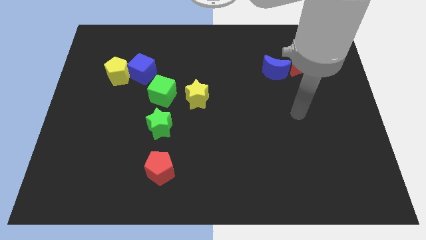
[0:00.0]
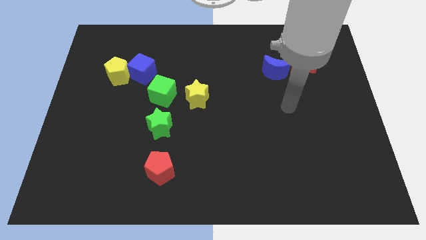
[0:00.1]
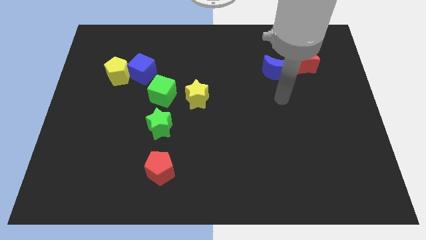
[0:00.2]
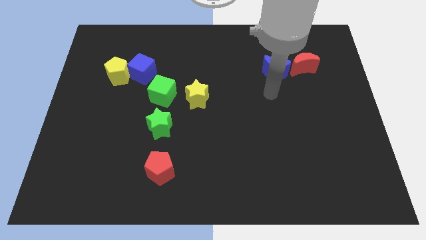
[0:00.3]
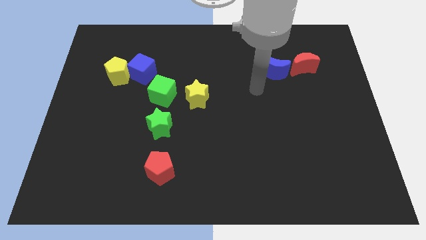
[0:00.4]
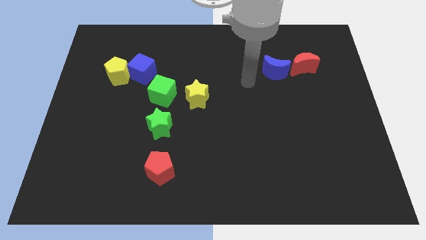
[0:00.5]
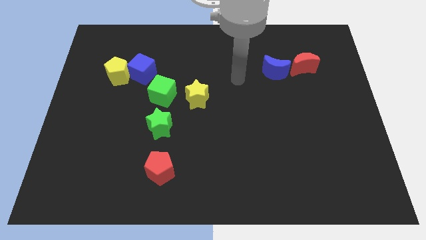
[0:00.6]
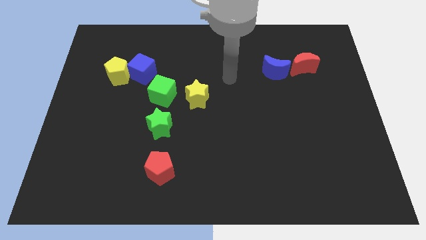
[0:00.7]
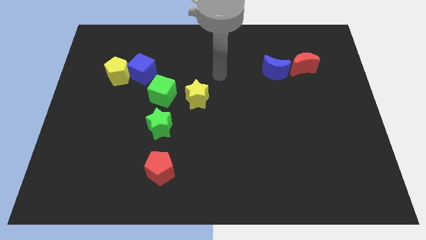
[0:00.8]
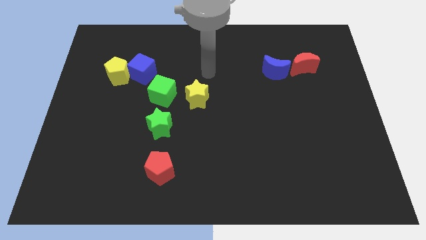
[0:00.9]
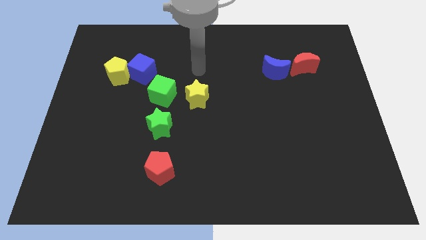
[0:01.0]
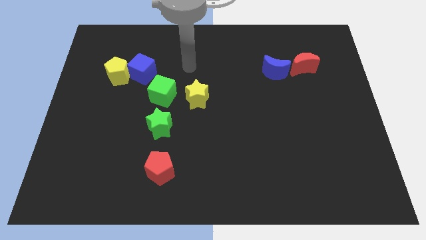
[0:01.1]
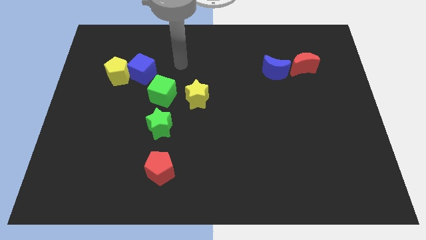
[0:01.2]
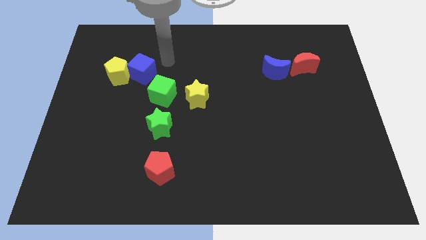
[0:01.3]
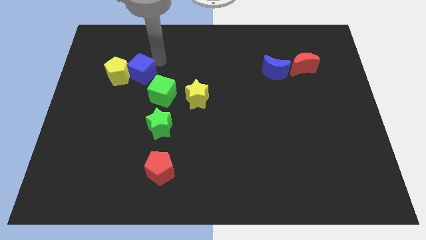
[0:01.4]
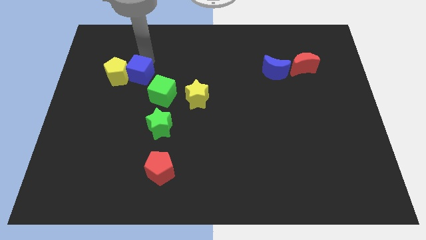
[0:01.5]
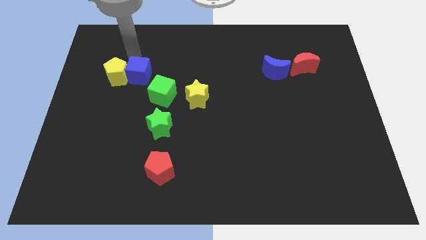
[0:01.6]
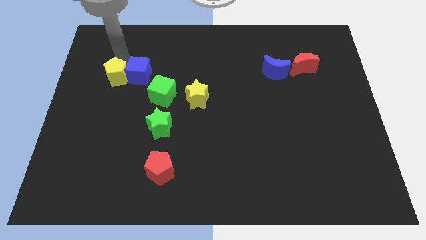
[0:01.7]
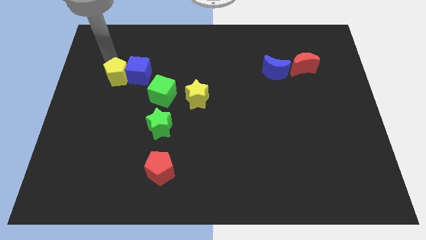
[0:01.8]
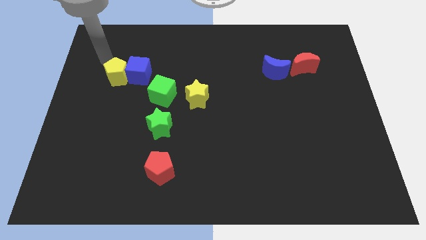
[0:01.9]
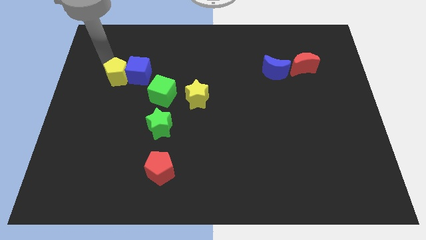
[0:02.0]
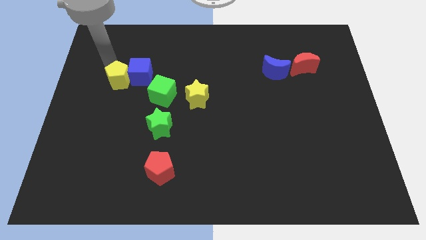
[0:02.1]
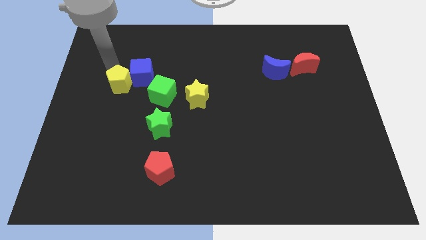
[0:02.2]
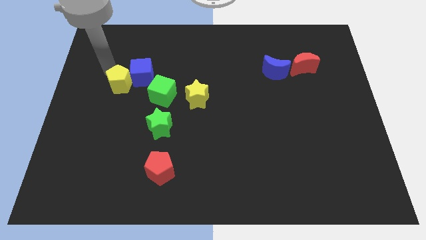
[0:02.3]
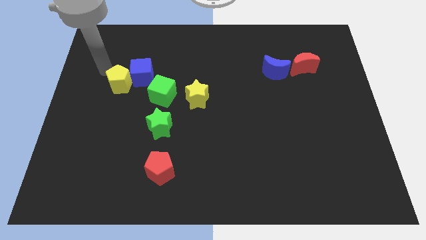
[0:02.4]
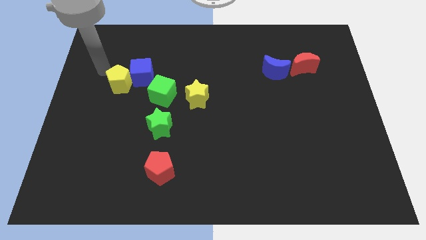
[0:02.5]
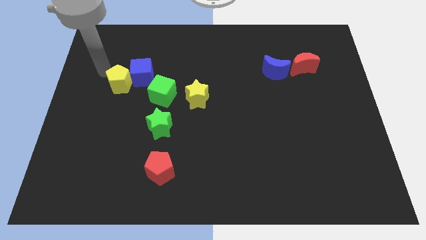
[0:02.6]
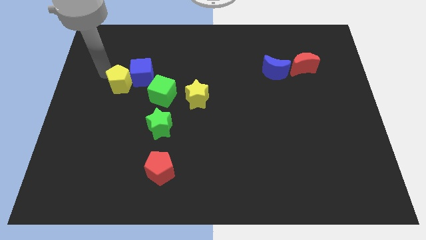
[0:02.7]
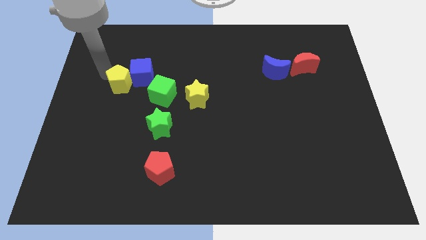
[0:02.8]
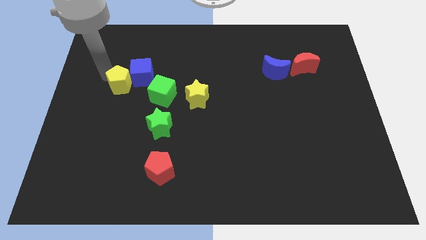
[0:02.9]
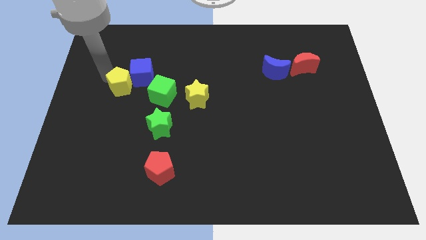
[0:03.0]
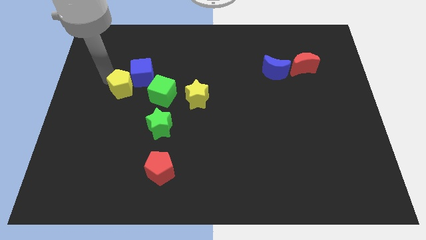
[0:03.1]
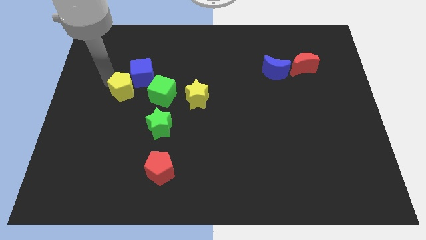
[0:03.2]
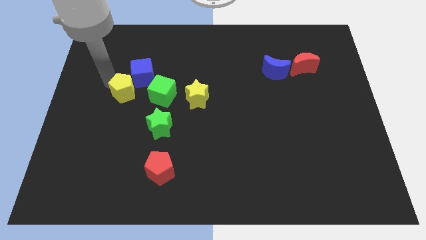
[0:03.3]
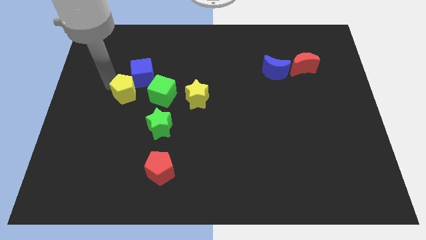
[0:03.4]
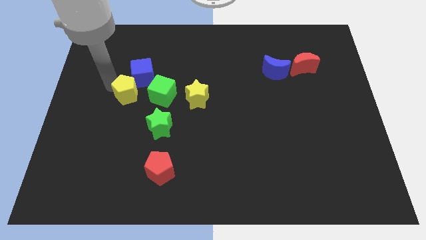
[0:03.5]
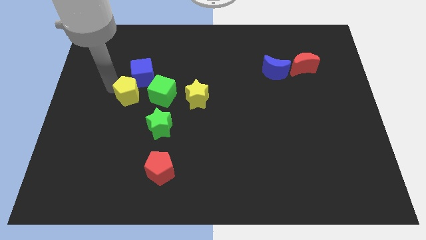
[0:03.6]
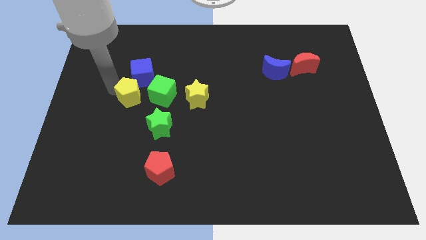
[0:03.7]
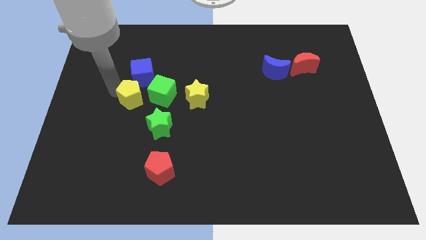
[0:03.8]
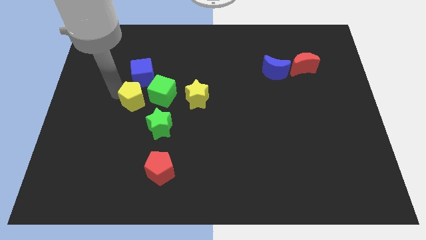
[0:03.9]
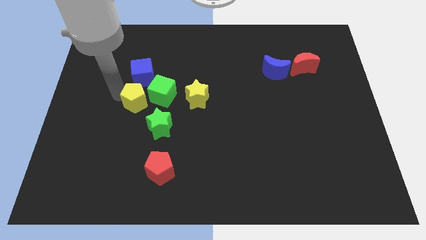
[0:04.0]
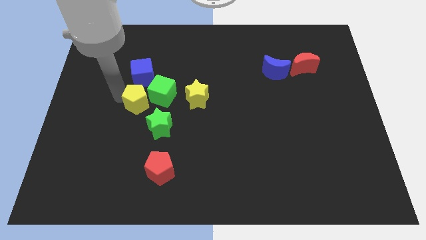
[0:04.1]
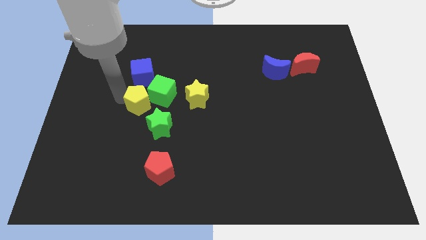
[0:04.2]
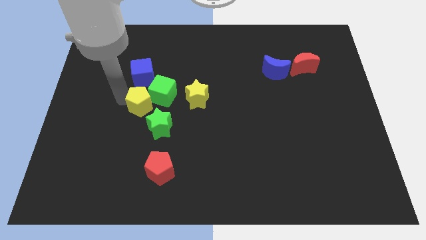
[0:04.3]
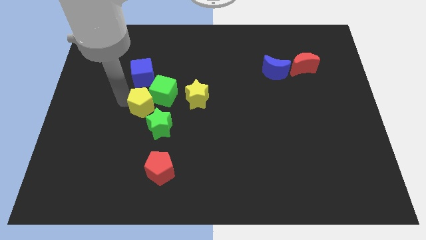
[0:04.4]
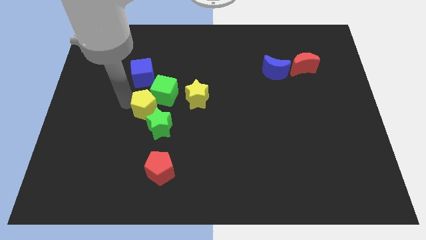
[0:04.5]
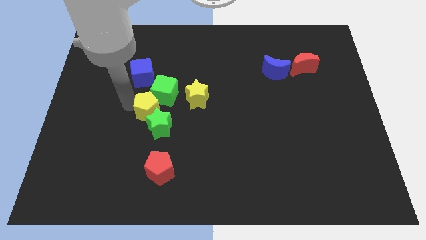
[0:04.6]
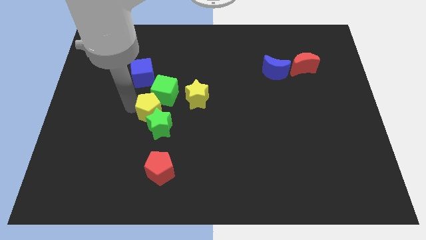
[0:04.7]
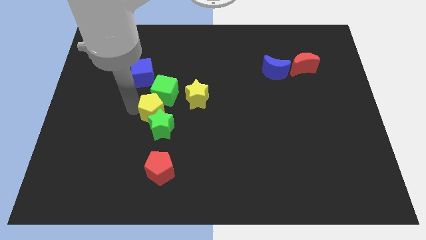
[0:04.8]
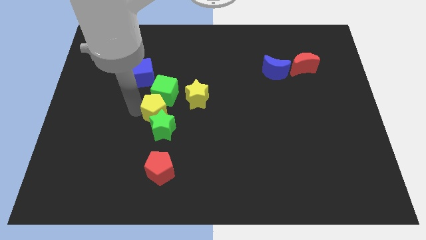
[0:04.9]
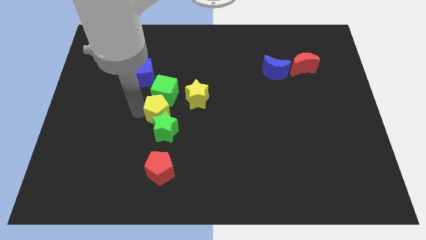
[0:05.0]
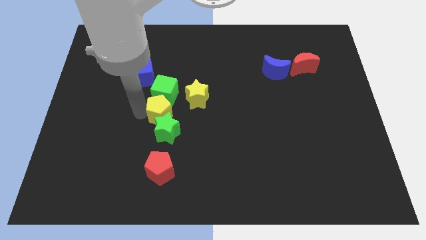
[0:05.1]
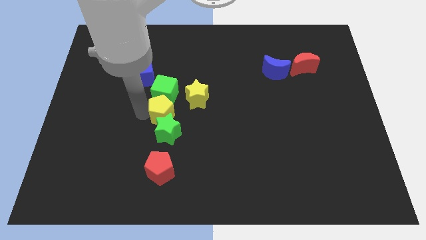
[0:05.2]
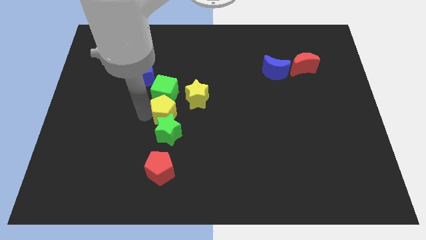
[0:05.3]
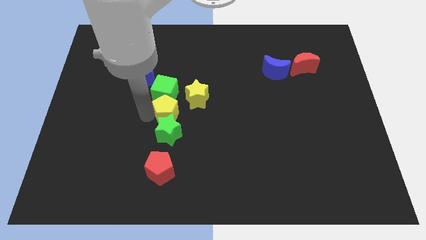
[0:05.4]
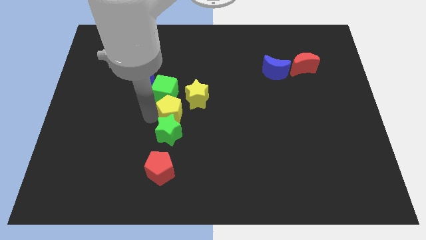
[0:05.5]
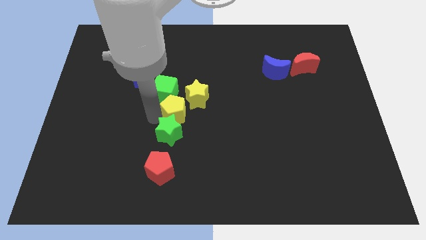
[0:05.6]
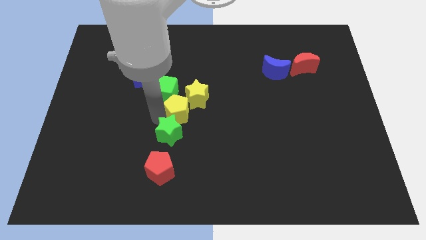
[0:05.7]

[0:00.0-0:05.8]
move the yellow pentagon downwards and then right

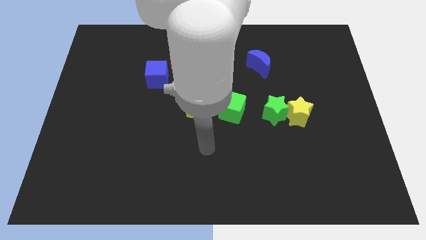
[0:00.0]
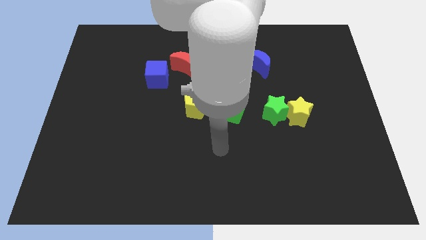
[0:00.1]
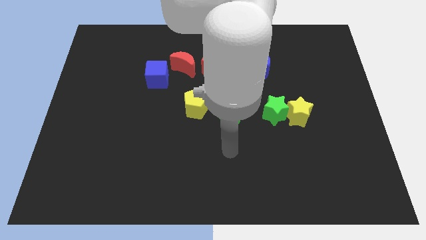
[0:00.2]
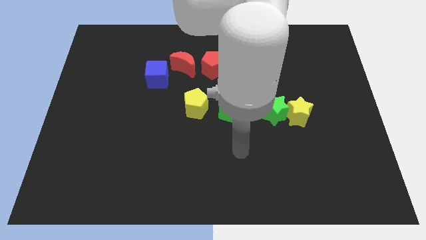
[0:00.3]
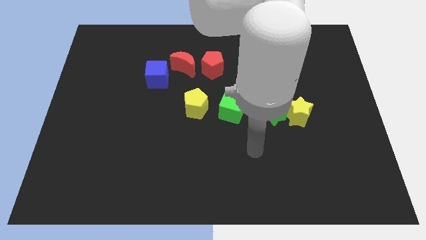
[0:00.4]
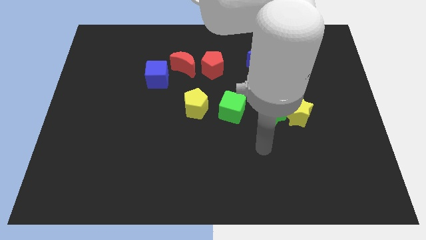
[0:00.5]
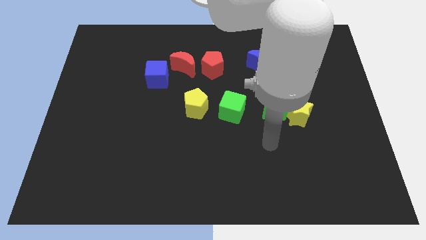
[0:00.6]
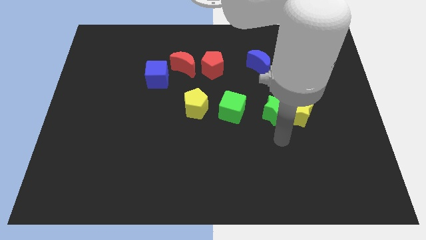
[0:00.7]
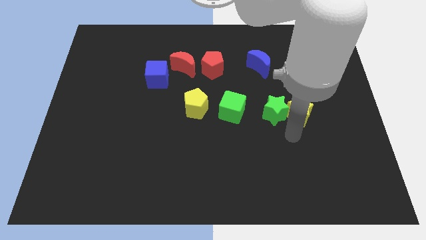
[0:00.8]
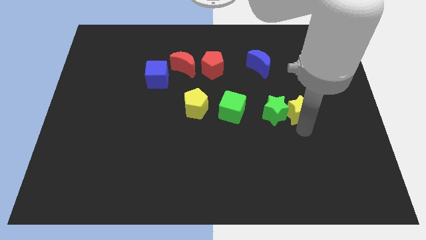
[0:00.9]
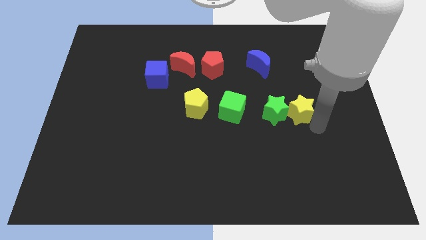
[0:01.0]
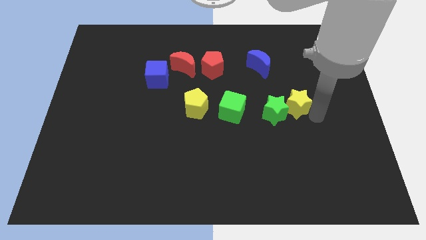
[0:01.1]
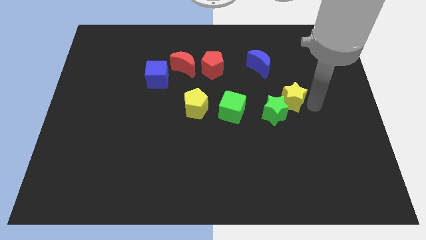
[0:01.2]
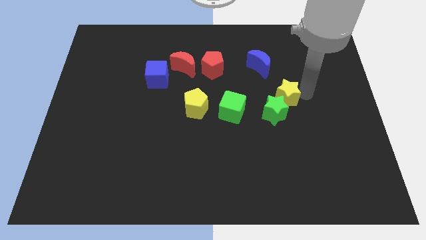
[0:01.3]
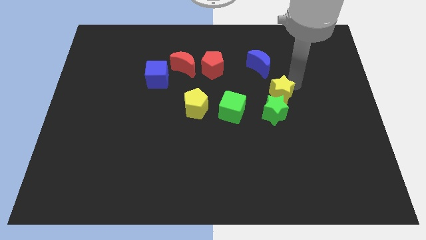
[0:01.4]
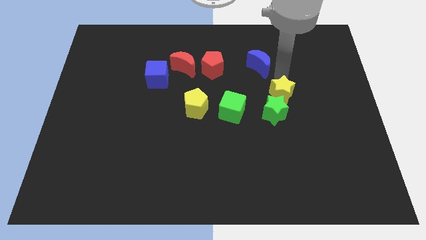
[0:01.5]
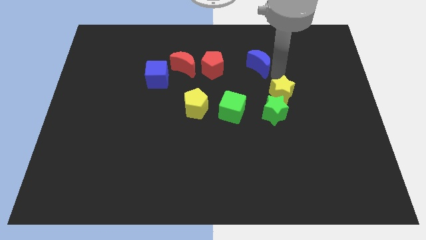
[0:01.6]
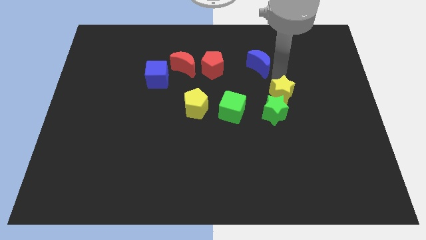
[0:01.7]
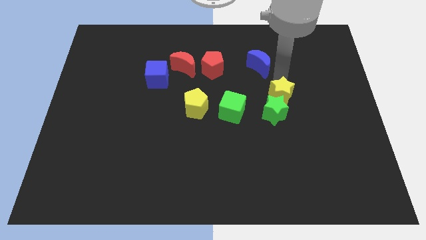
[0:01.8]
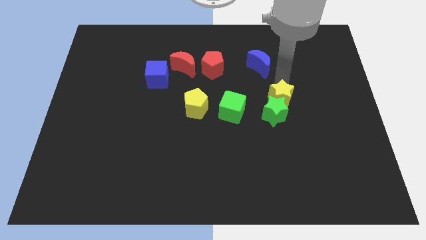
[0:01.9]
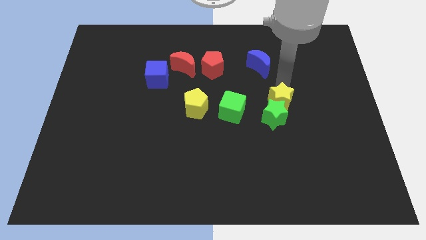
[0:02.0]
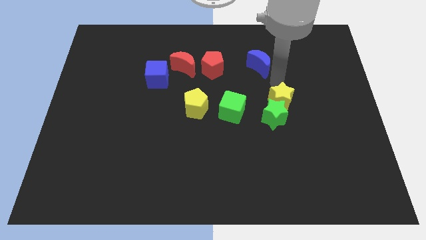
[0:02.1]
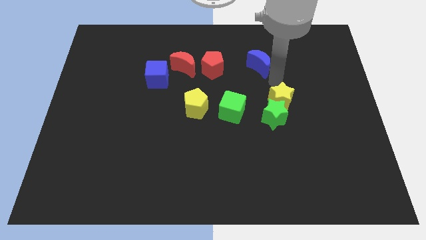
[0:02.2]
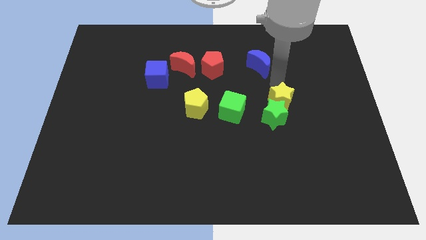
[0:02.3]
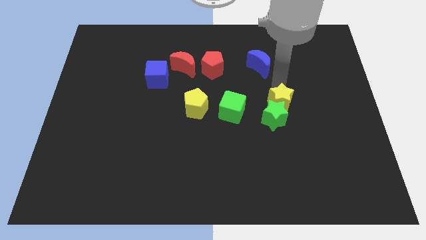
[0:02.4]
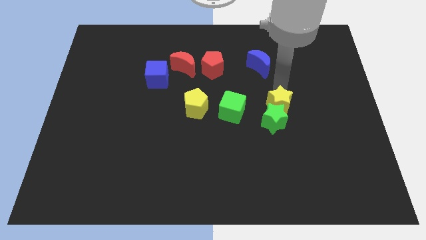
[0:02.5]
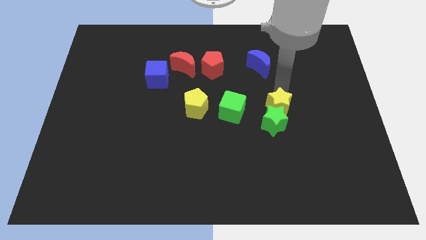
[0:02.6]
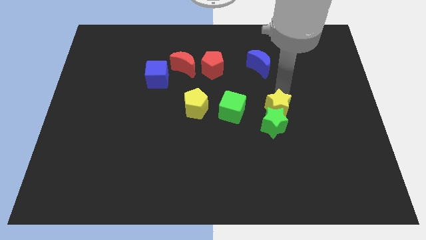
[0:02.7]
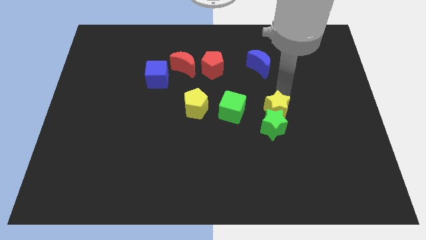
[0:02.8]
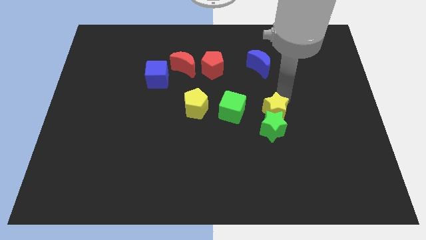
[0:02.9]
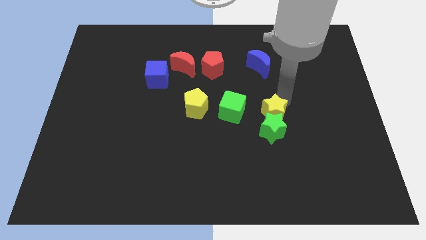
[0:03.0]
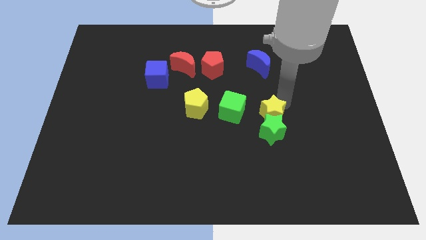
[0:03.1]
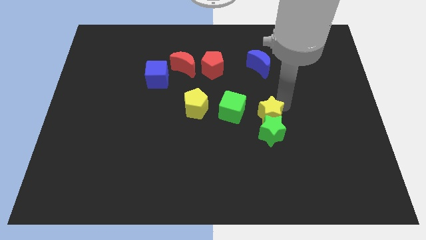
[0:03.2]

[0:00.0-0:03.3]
push the yellow star somewhat left
